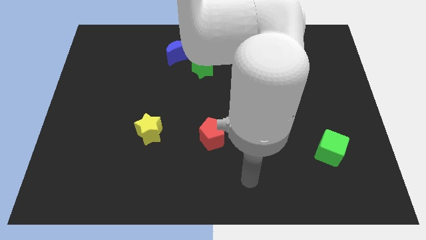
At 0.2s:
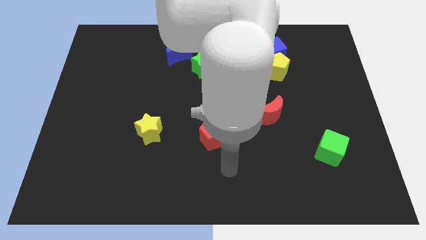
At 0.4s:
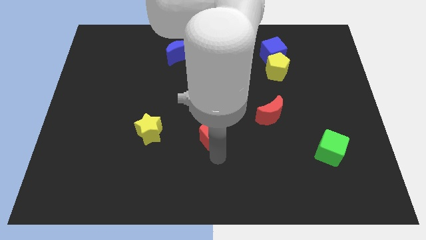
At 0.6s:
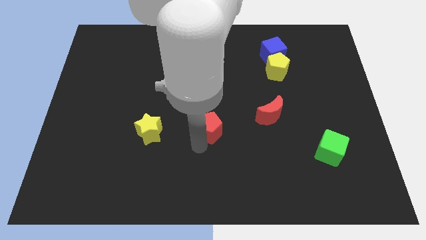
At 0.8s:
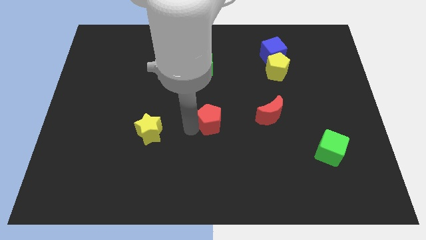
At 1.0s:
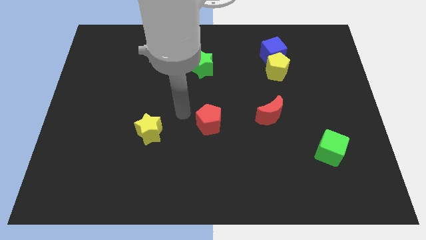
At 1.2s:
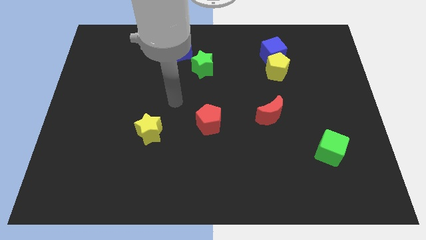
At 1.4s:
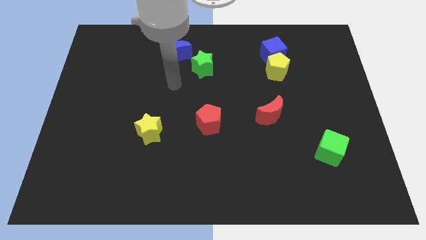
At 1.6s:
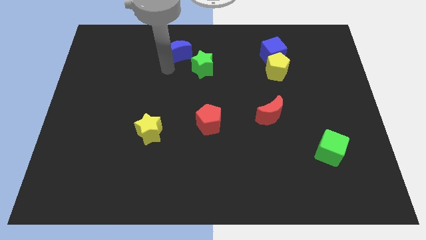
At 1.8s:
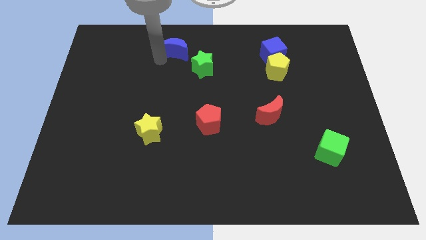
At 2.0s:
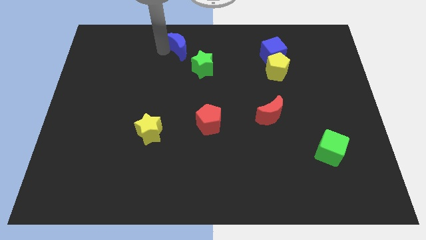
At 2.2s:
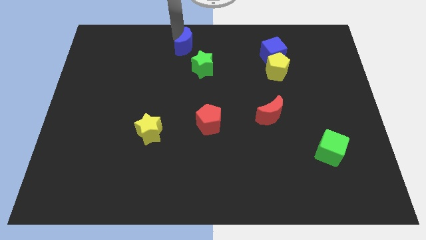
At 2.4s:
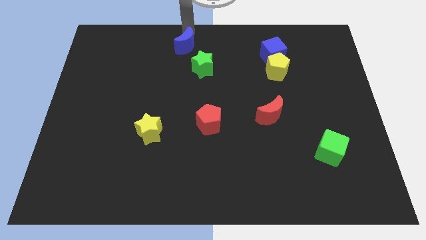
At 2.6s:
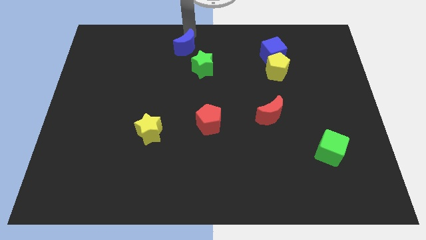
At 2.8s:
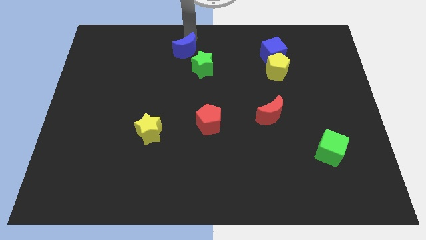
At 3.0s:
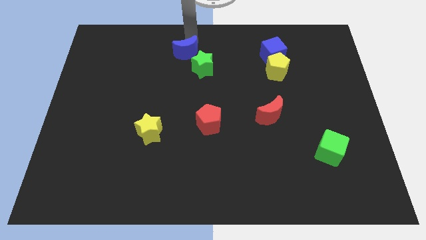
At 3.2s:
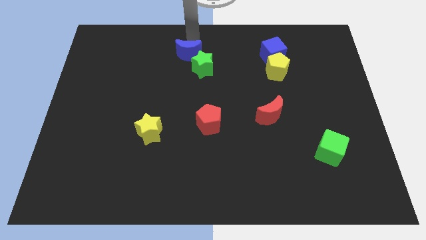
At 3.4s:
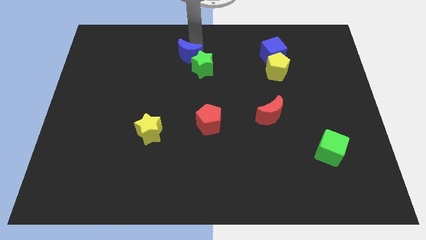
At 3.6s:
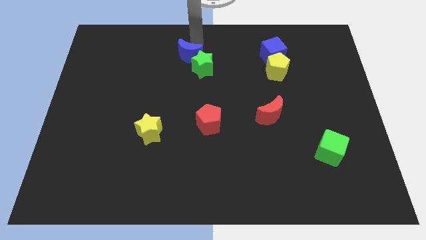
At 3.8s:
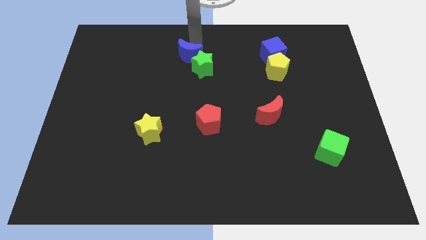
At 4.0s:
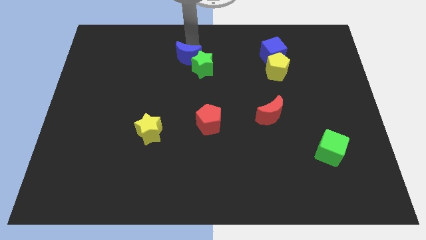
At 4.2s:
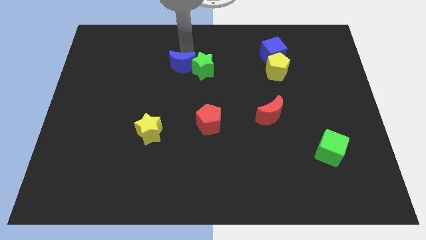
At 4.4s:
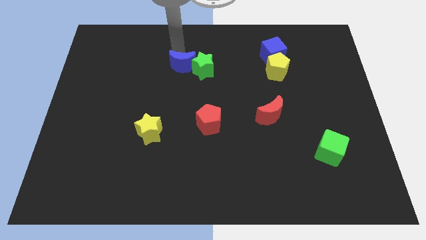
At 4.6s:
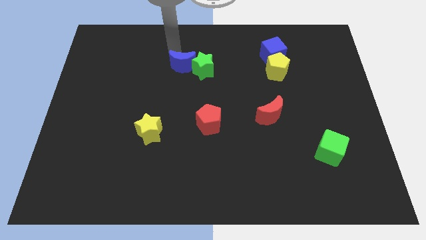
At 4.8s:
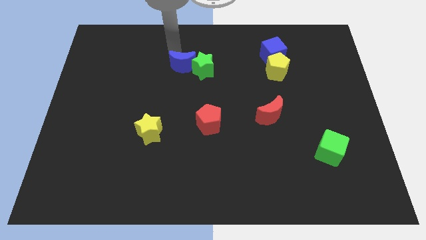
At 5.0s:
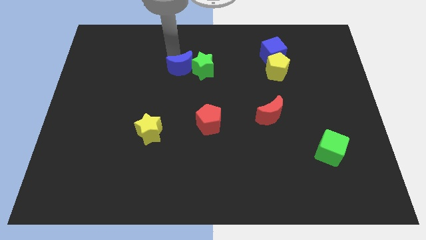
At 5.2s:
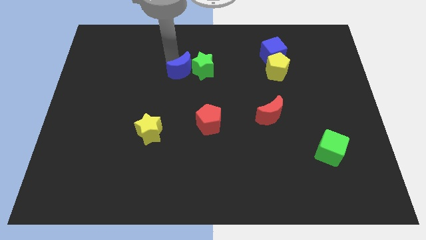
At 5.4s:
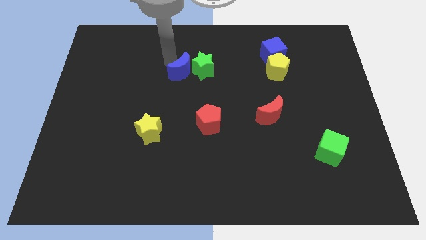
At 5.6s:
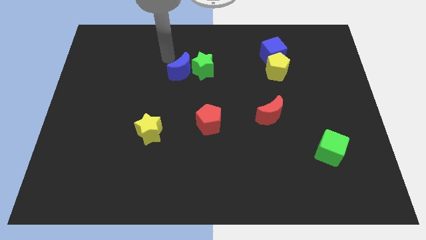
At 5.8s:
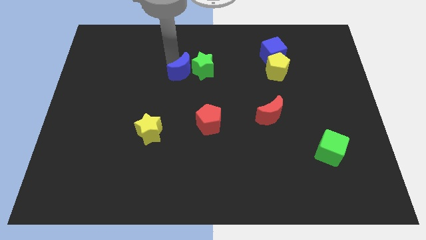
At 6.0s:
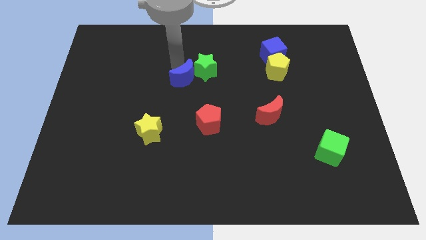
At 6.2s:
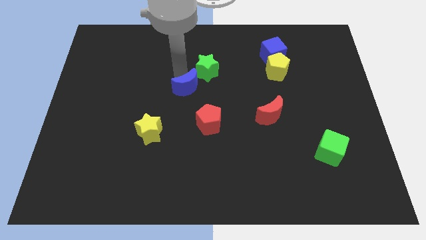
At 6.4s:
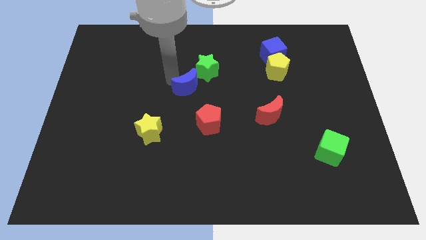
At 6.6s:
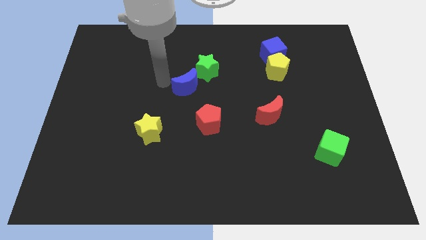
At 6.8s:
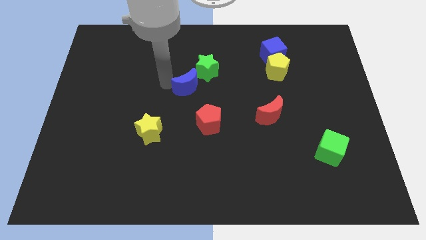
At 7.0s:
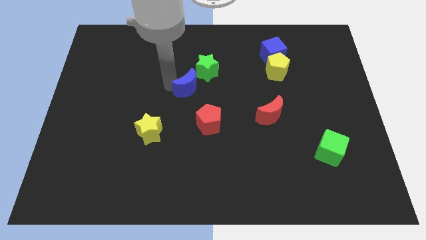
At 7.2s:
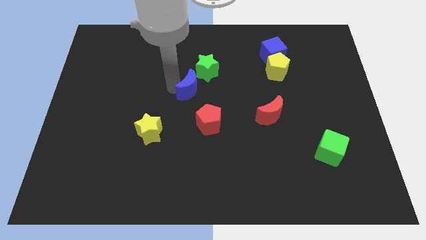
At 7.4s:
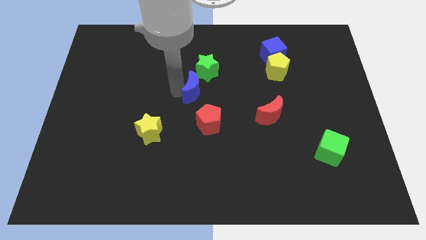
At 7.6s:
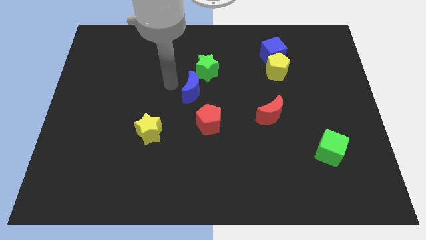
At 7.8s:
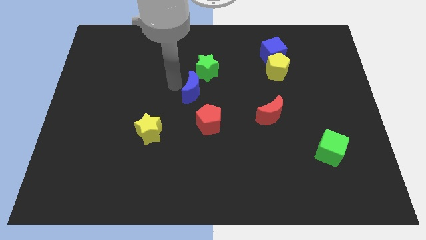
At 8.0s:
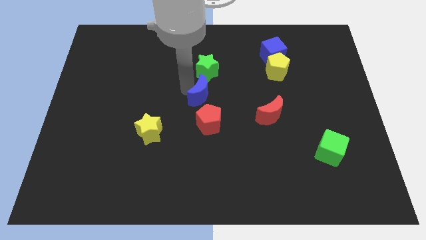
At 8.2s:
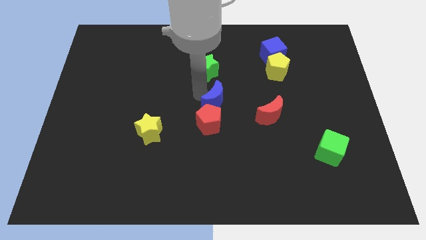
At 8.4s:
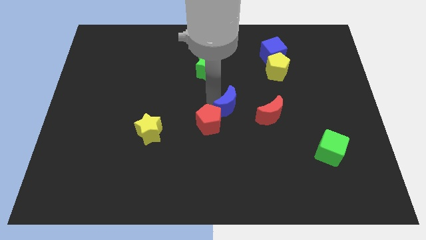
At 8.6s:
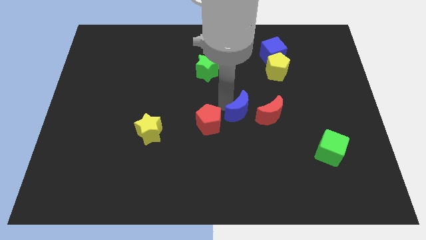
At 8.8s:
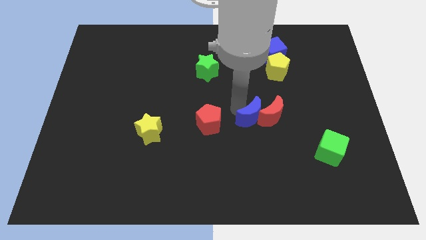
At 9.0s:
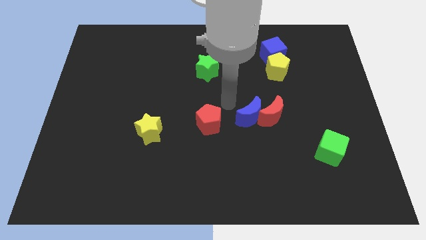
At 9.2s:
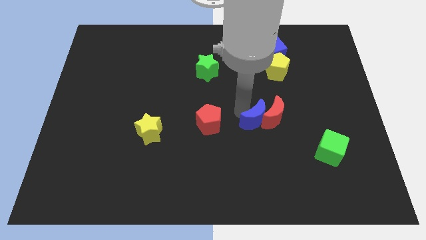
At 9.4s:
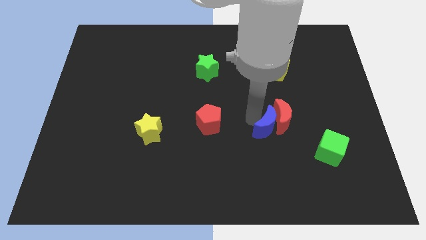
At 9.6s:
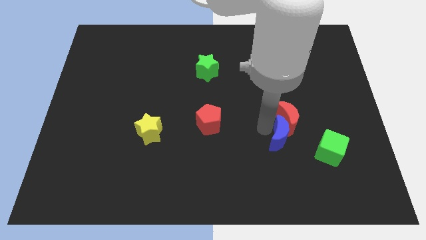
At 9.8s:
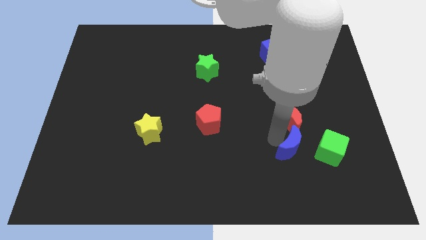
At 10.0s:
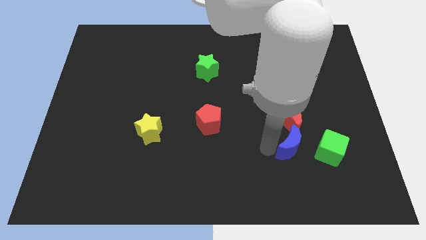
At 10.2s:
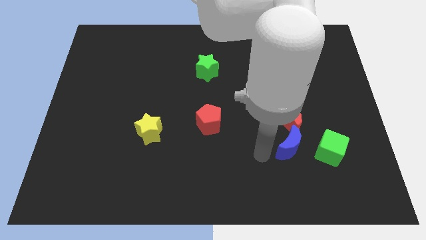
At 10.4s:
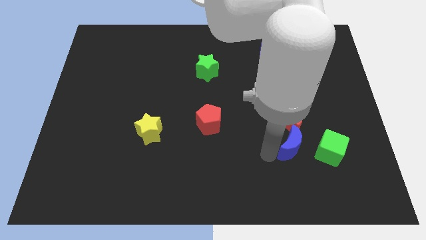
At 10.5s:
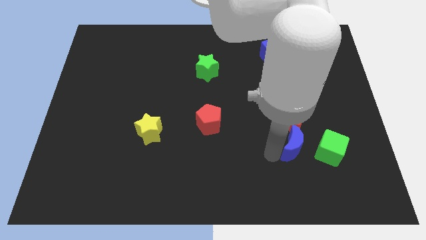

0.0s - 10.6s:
push the blue moon to the bottom right side of the red moon

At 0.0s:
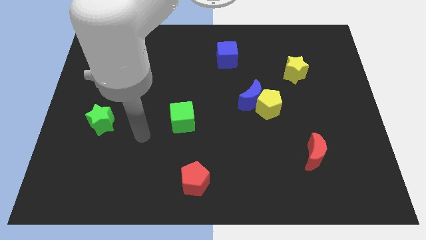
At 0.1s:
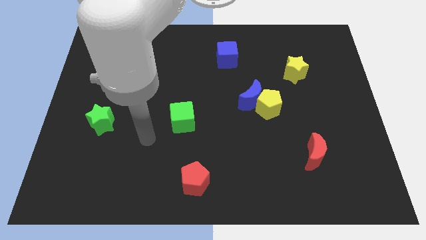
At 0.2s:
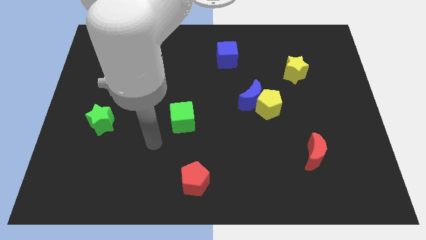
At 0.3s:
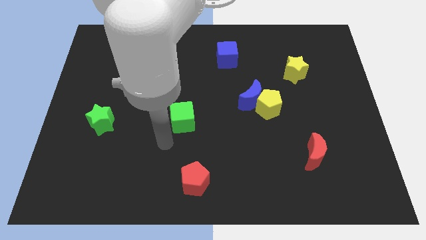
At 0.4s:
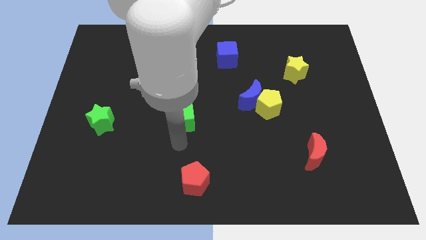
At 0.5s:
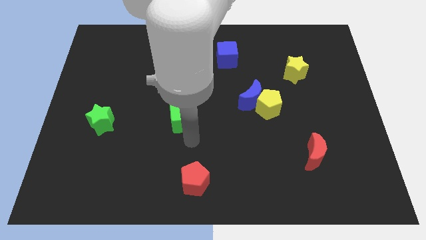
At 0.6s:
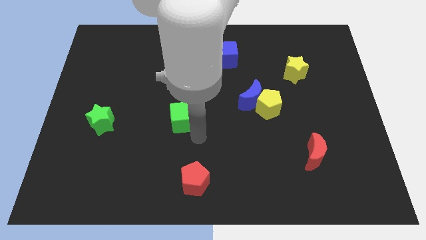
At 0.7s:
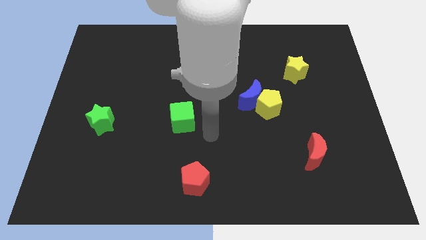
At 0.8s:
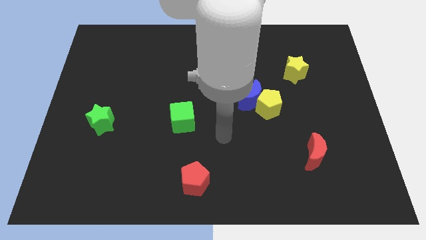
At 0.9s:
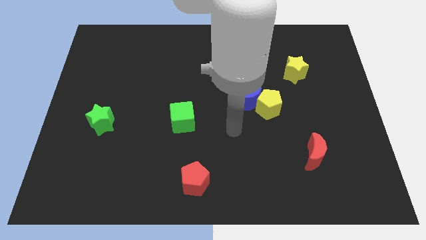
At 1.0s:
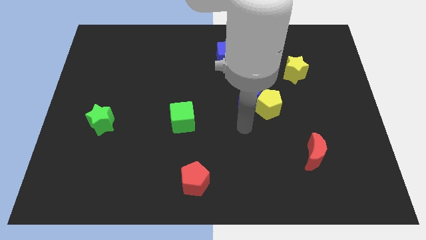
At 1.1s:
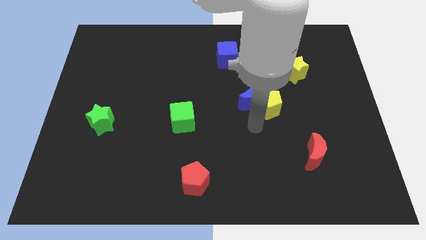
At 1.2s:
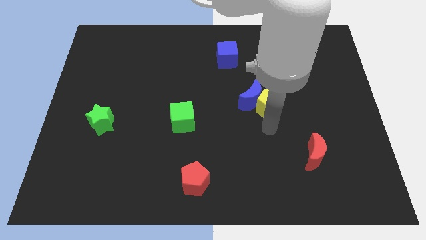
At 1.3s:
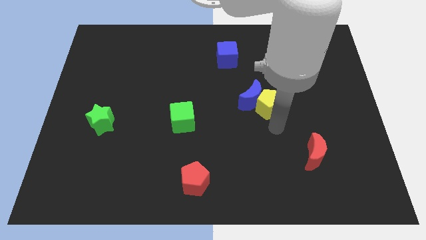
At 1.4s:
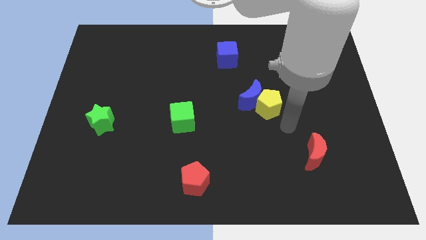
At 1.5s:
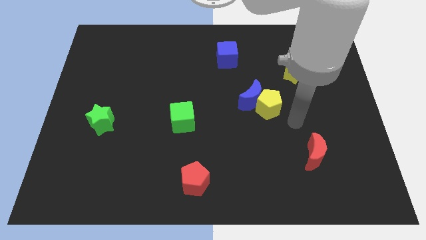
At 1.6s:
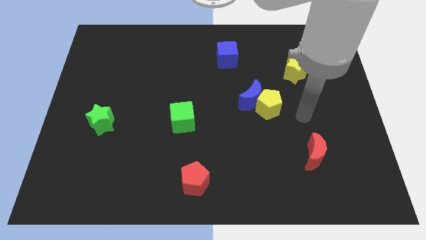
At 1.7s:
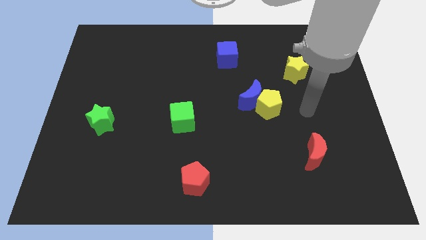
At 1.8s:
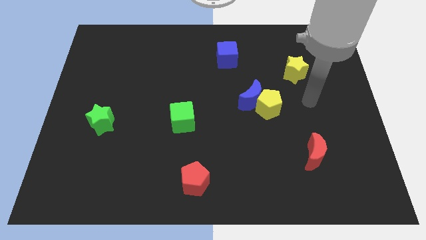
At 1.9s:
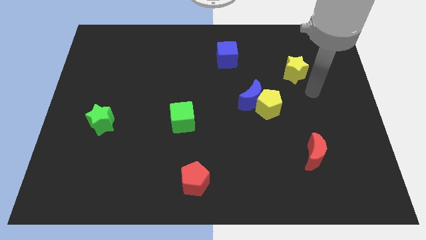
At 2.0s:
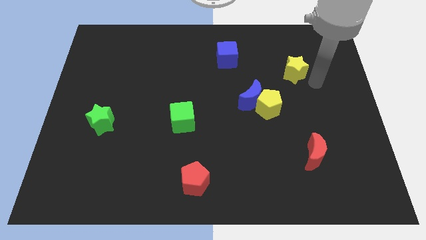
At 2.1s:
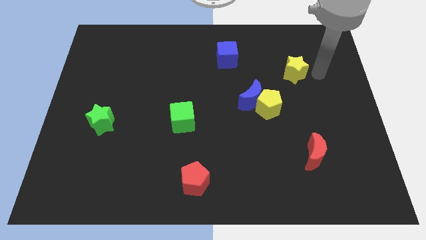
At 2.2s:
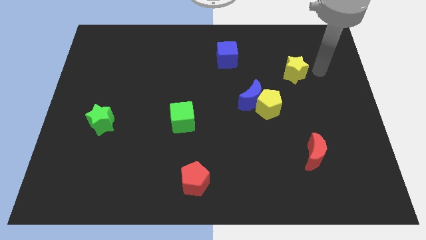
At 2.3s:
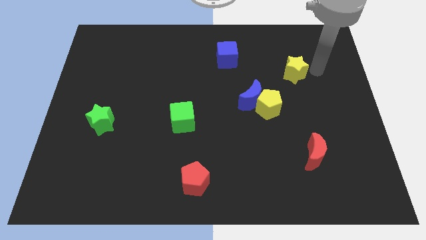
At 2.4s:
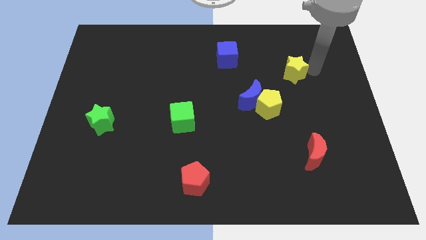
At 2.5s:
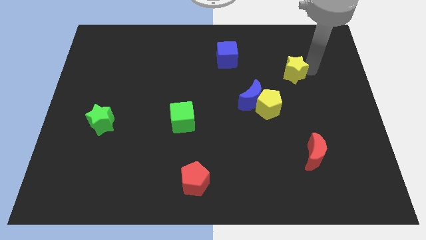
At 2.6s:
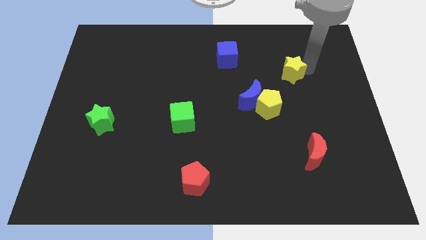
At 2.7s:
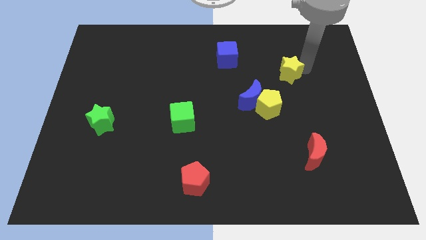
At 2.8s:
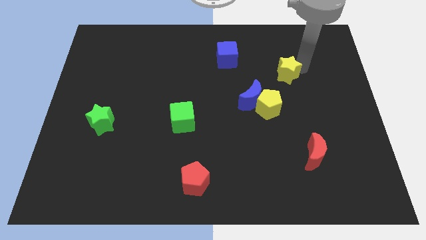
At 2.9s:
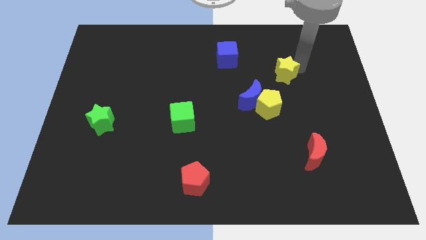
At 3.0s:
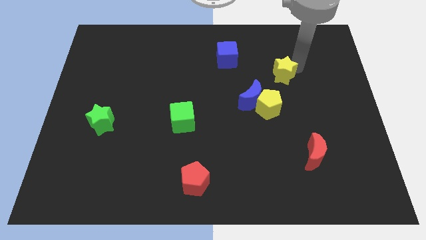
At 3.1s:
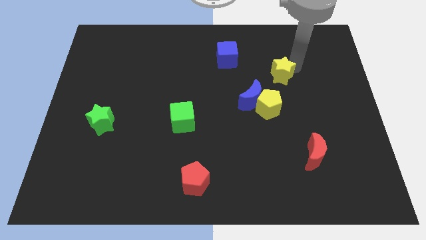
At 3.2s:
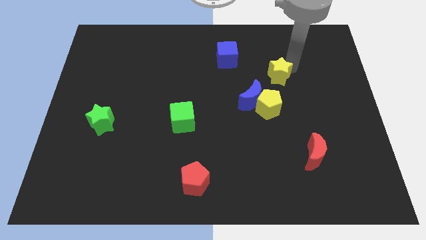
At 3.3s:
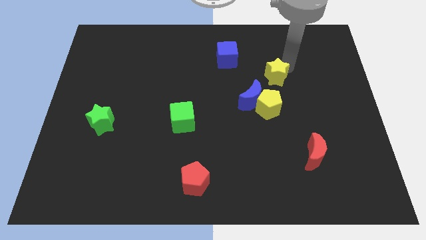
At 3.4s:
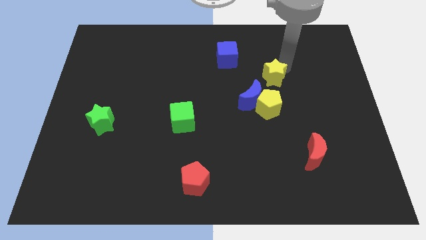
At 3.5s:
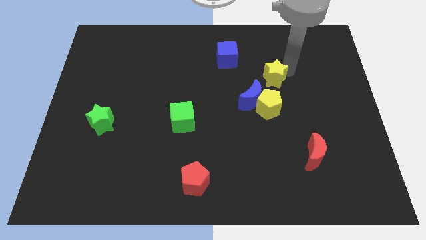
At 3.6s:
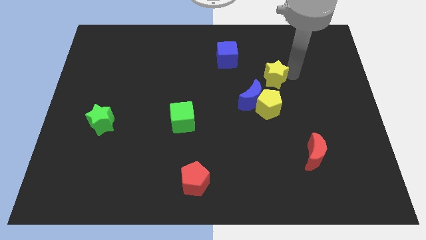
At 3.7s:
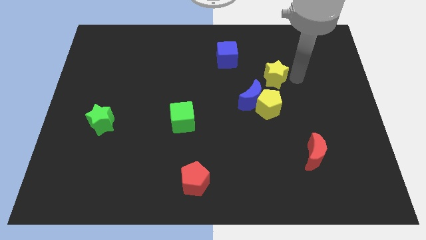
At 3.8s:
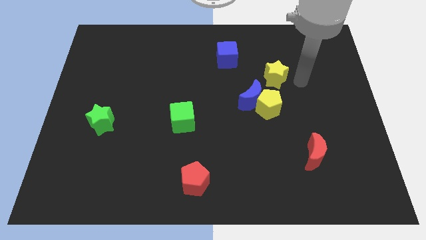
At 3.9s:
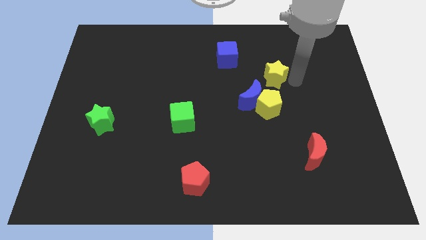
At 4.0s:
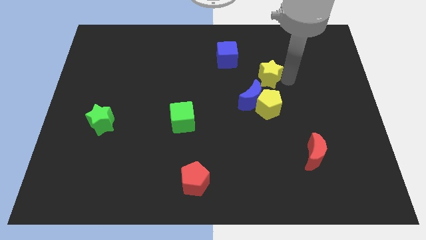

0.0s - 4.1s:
slide the yellow star to the bottom right of the blue cube
